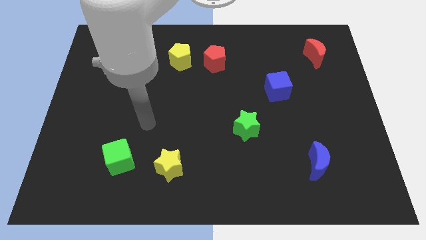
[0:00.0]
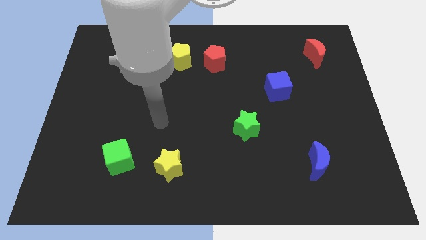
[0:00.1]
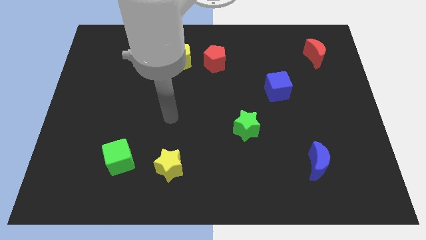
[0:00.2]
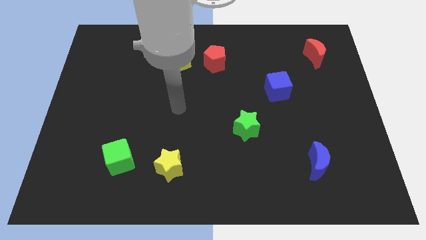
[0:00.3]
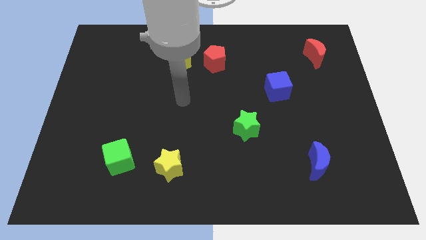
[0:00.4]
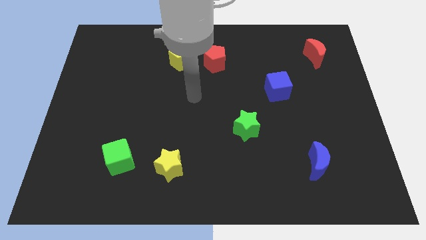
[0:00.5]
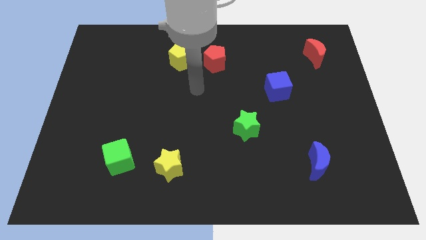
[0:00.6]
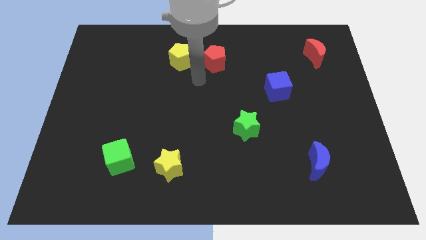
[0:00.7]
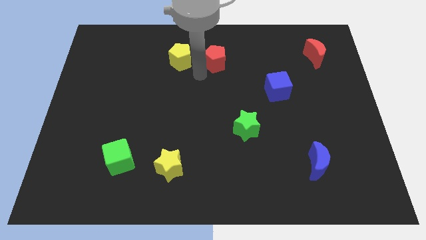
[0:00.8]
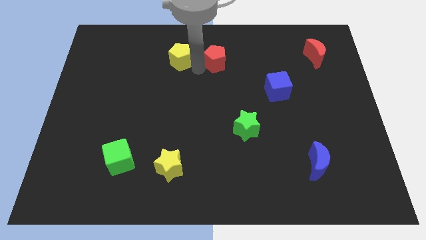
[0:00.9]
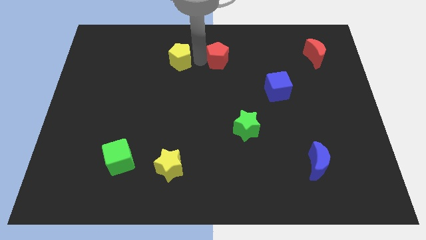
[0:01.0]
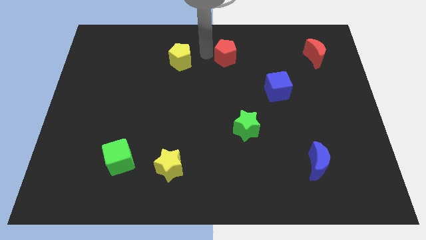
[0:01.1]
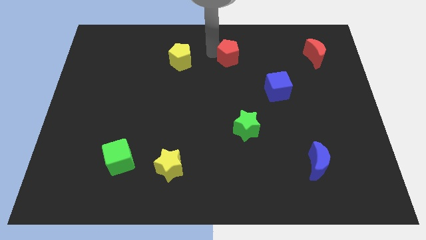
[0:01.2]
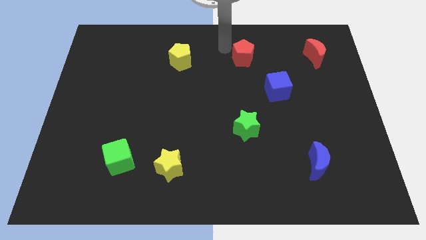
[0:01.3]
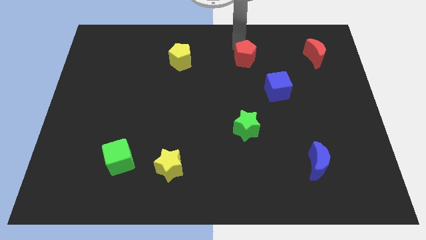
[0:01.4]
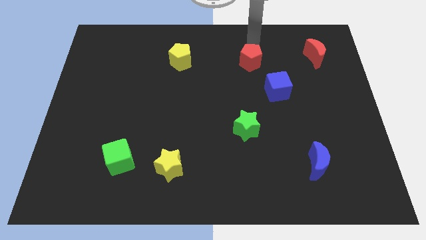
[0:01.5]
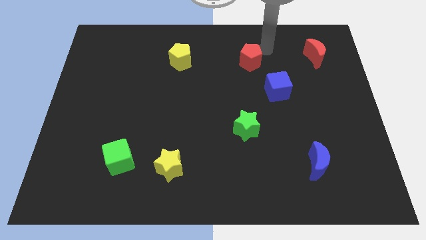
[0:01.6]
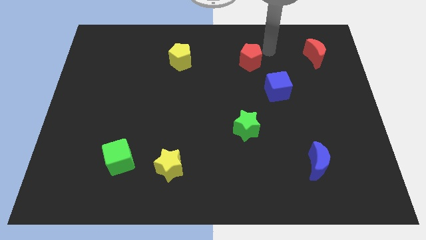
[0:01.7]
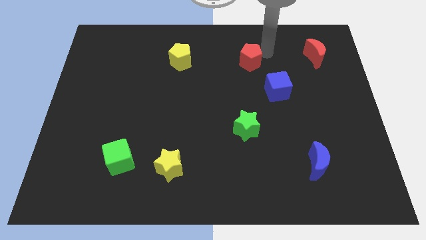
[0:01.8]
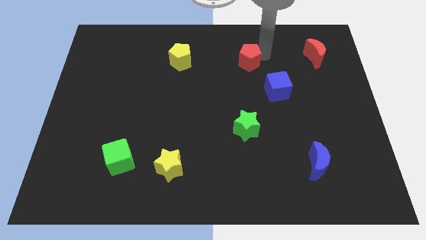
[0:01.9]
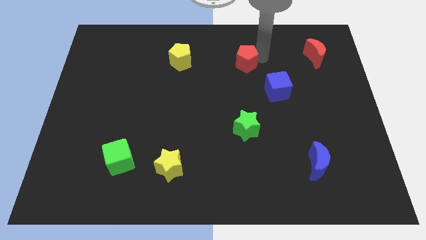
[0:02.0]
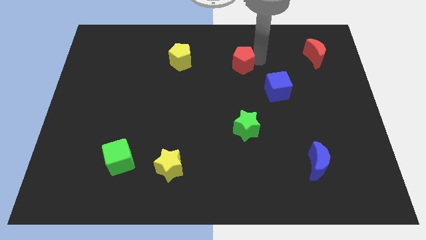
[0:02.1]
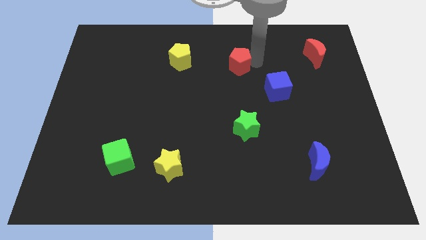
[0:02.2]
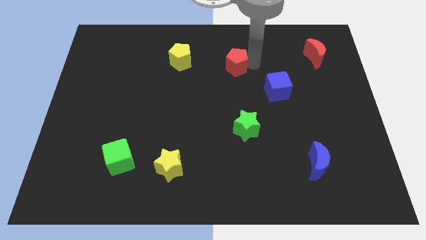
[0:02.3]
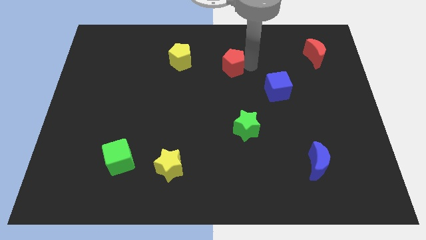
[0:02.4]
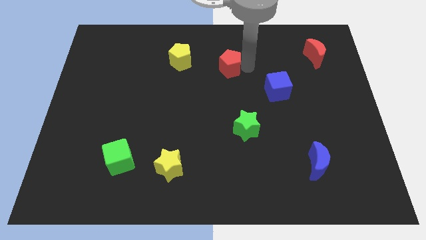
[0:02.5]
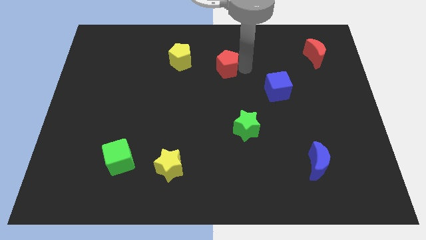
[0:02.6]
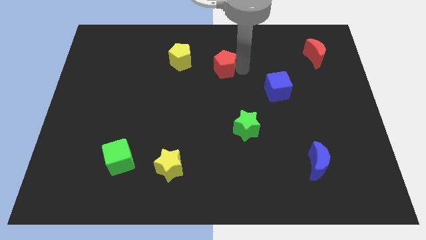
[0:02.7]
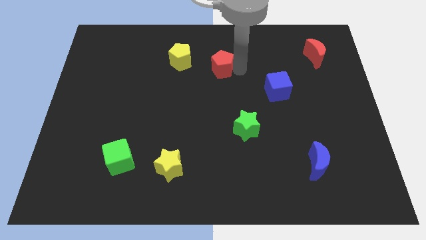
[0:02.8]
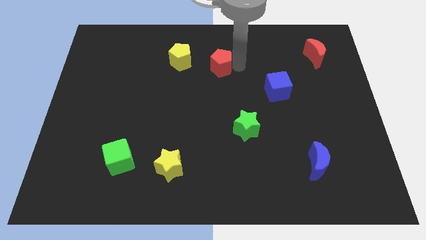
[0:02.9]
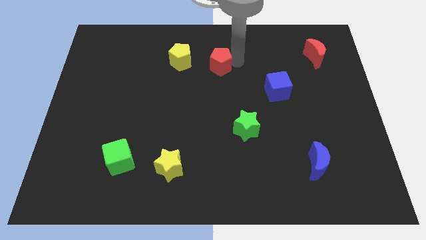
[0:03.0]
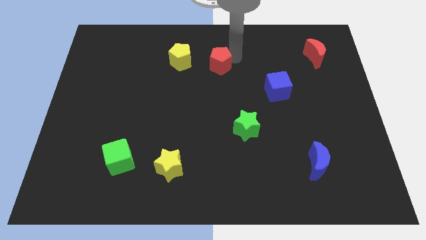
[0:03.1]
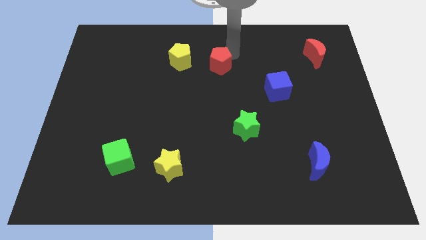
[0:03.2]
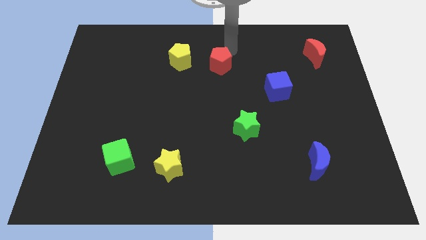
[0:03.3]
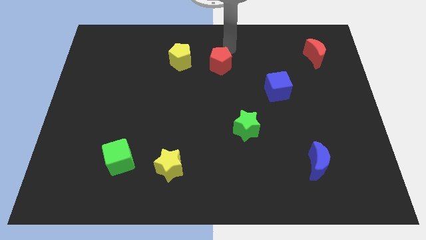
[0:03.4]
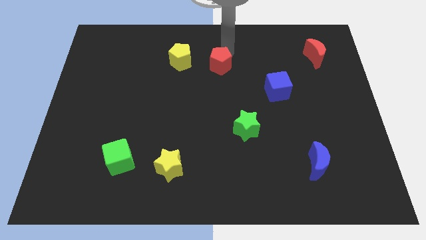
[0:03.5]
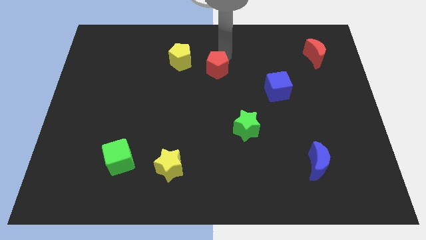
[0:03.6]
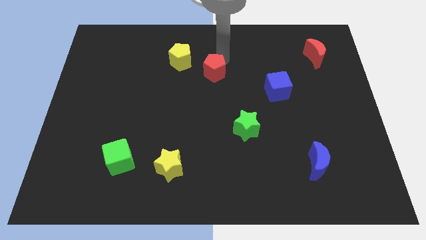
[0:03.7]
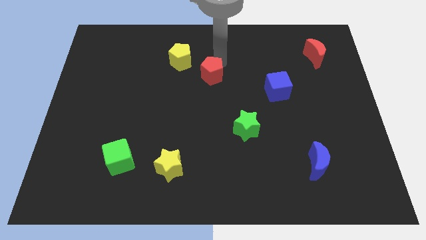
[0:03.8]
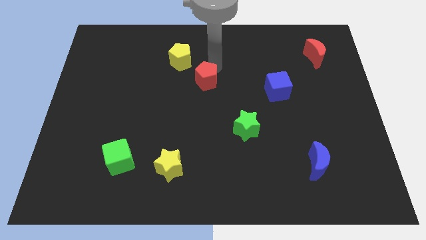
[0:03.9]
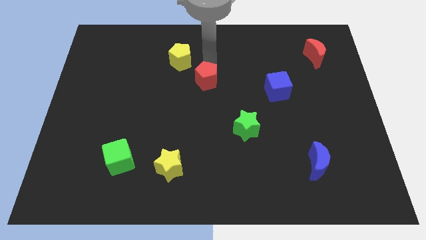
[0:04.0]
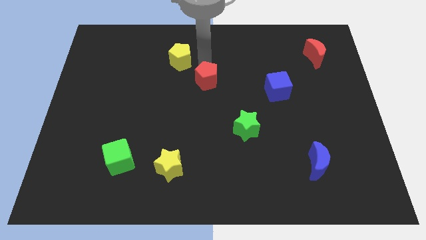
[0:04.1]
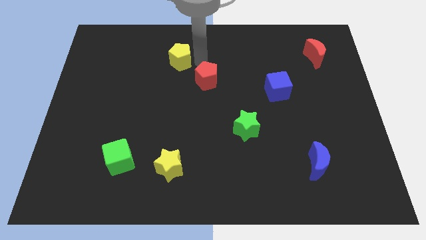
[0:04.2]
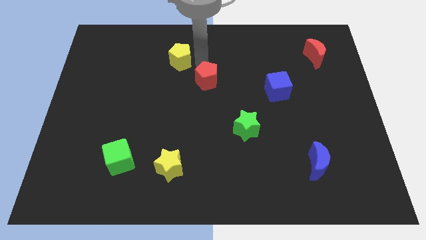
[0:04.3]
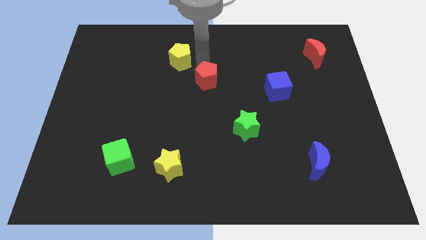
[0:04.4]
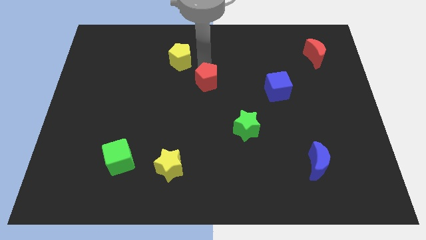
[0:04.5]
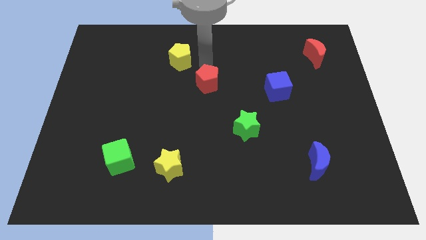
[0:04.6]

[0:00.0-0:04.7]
slide the red pentagon down slightly

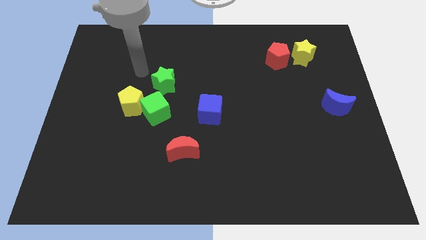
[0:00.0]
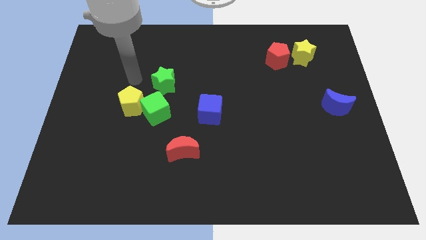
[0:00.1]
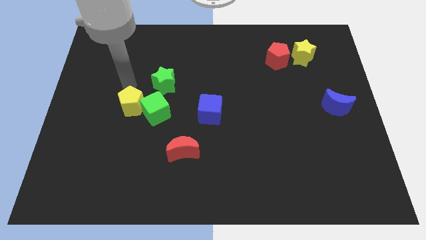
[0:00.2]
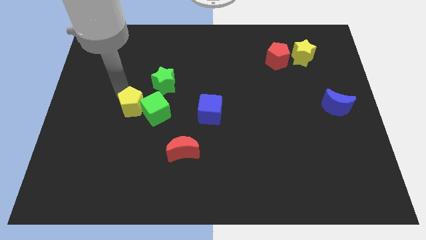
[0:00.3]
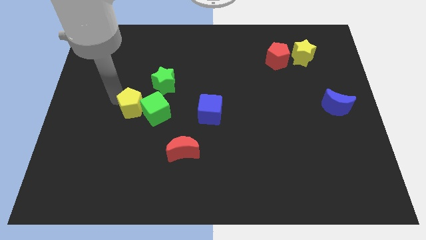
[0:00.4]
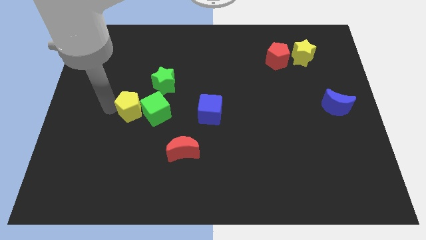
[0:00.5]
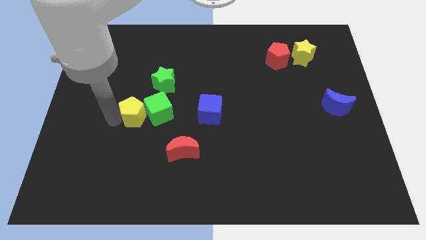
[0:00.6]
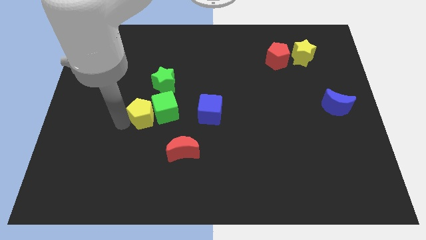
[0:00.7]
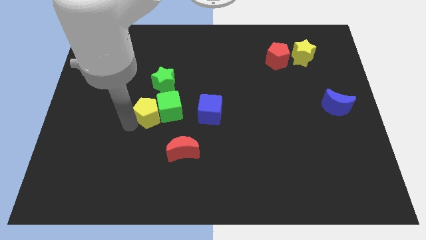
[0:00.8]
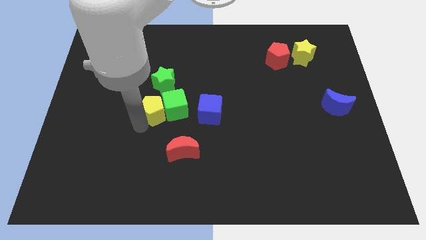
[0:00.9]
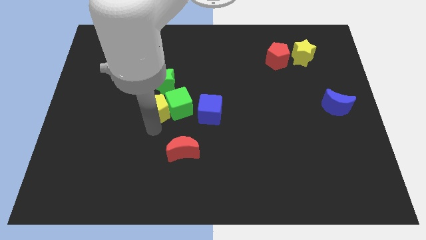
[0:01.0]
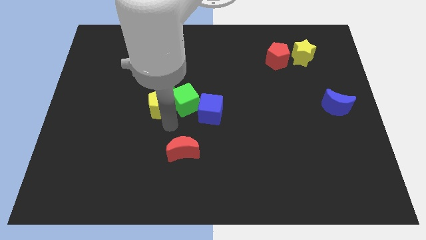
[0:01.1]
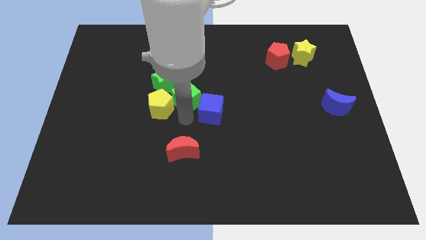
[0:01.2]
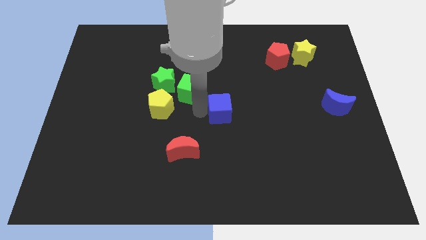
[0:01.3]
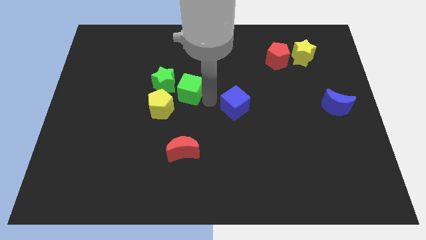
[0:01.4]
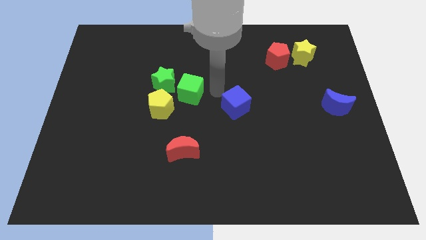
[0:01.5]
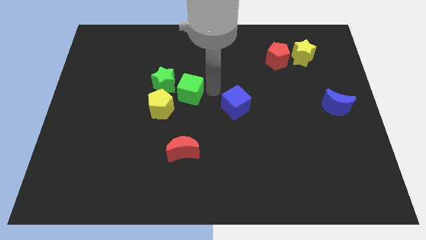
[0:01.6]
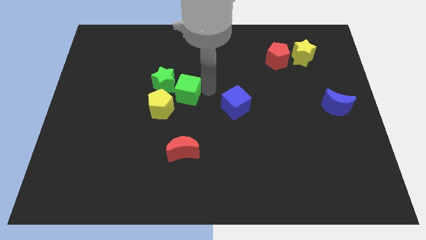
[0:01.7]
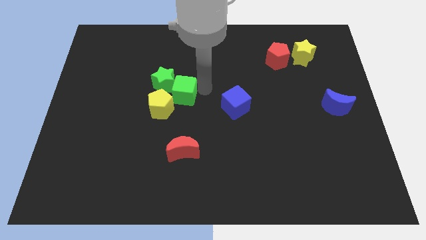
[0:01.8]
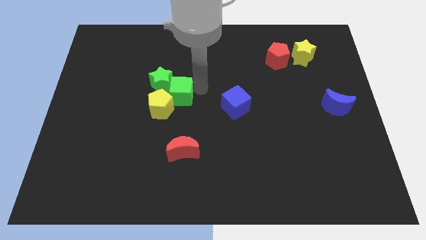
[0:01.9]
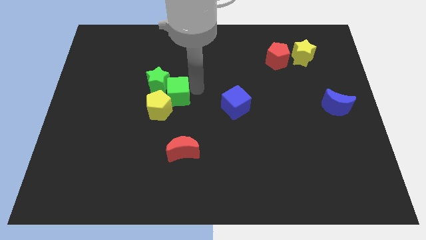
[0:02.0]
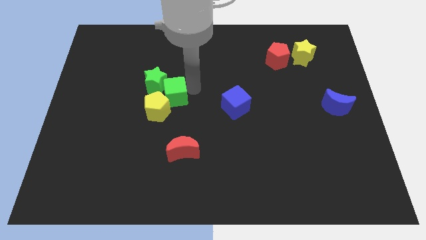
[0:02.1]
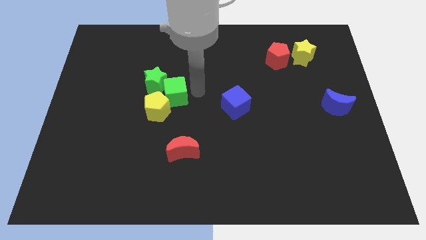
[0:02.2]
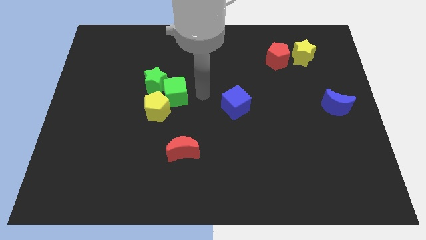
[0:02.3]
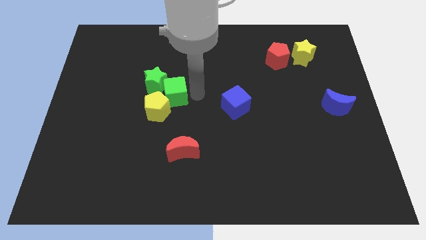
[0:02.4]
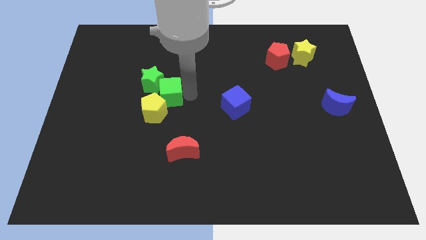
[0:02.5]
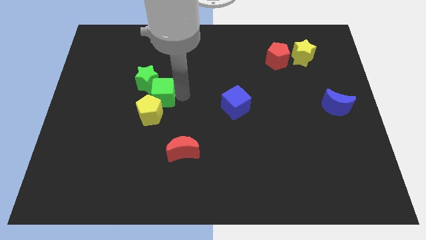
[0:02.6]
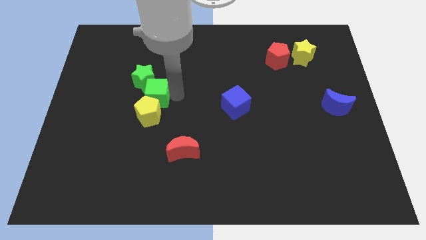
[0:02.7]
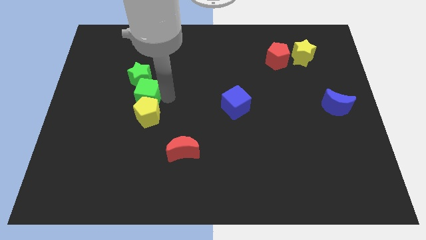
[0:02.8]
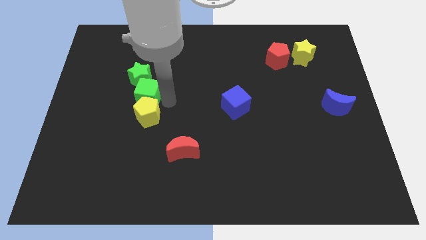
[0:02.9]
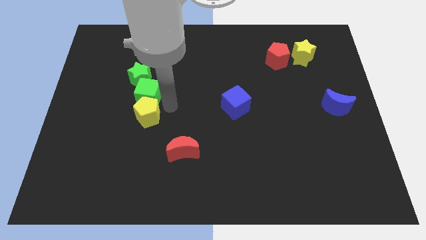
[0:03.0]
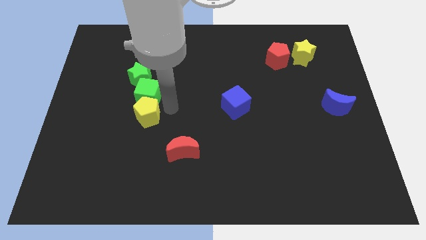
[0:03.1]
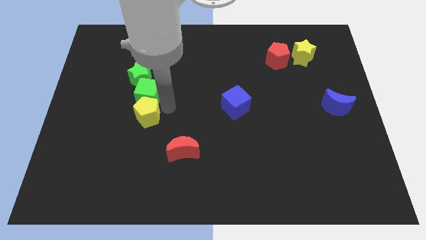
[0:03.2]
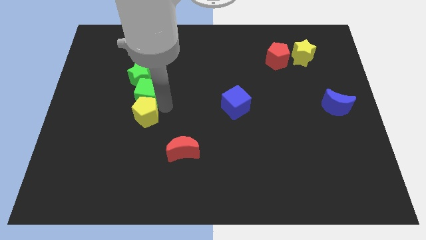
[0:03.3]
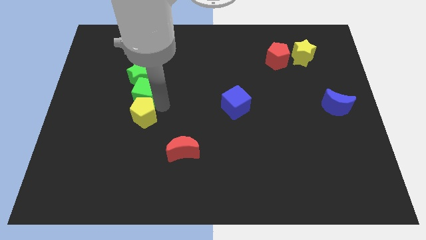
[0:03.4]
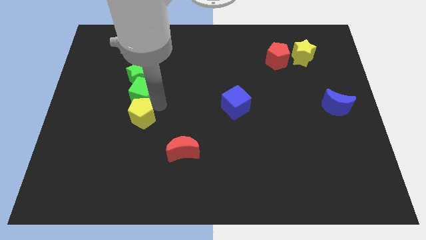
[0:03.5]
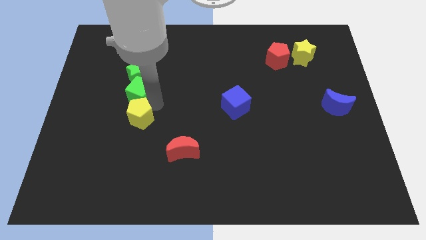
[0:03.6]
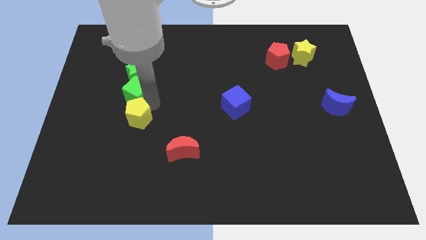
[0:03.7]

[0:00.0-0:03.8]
slightly slide the green cube up and left
